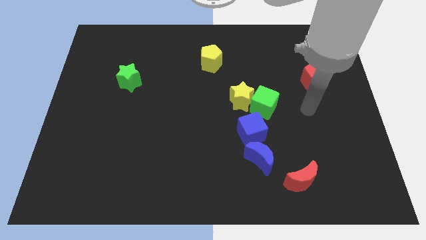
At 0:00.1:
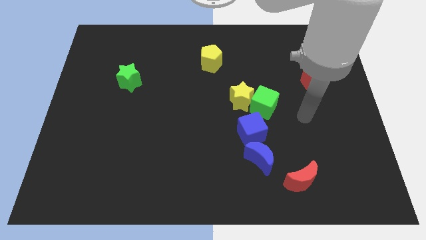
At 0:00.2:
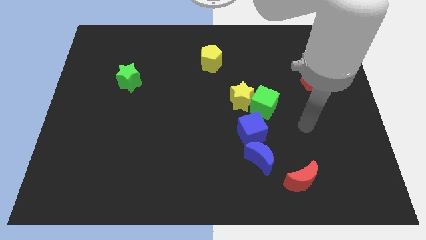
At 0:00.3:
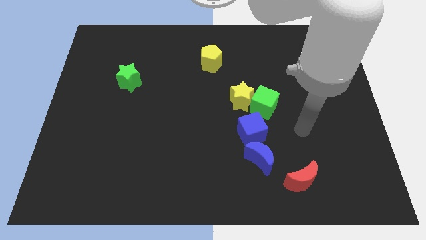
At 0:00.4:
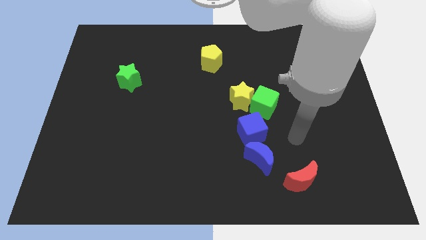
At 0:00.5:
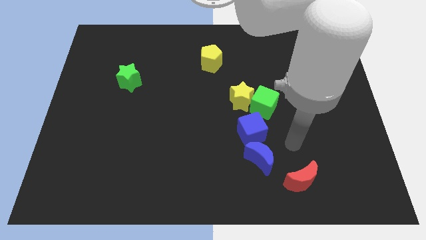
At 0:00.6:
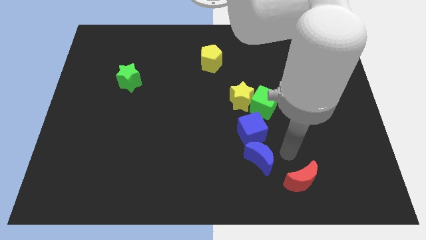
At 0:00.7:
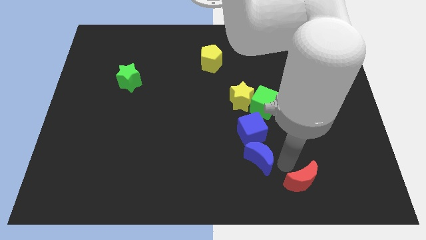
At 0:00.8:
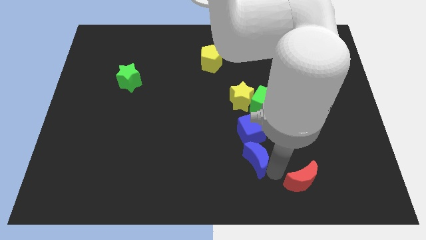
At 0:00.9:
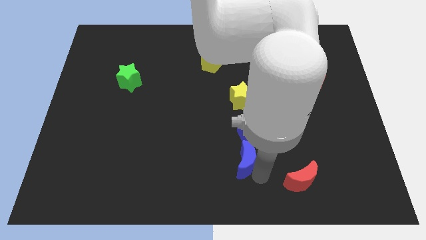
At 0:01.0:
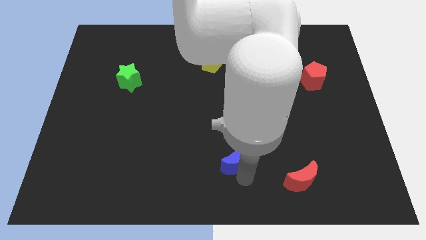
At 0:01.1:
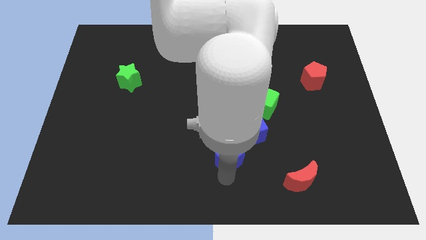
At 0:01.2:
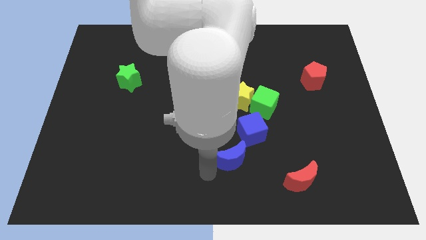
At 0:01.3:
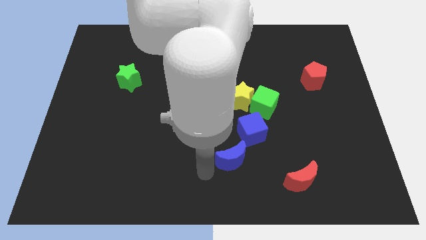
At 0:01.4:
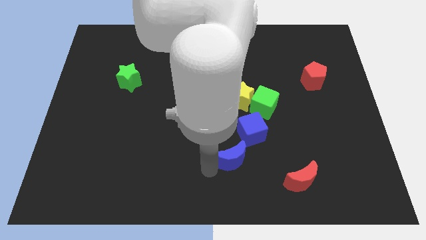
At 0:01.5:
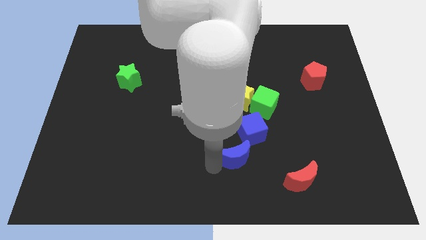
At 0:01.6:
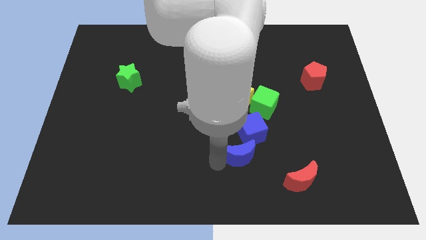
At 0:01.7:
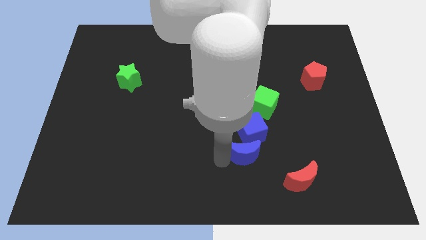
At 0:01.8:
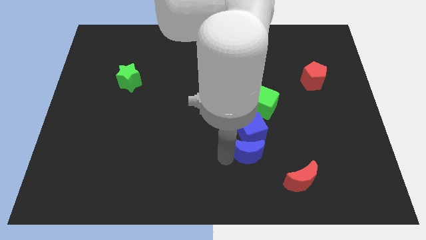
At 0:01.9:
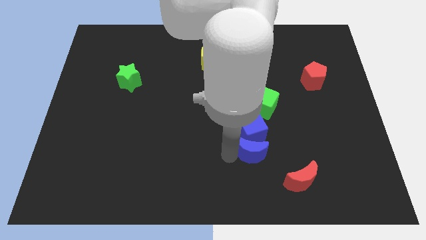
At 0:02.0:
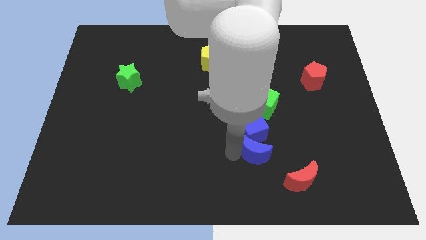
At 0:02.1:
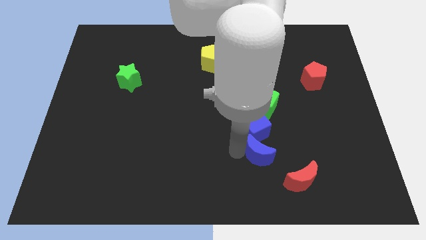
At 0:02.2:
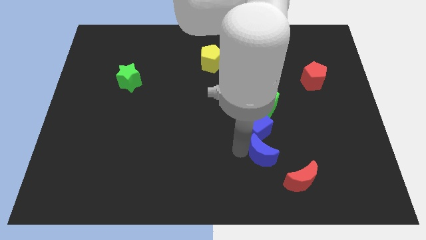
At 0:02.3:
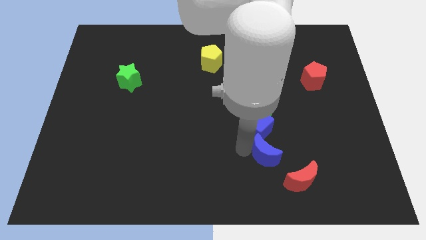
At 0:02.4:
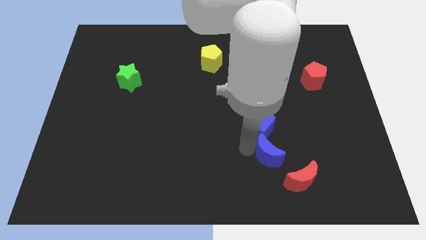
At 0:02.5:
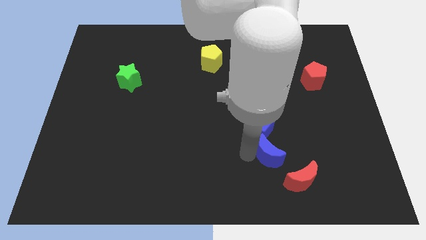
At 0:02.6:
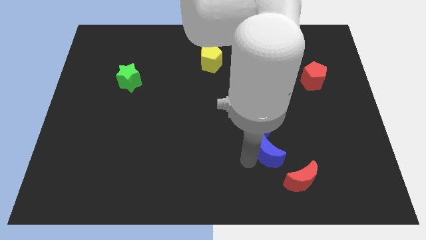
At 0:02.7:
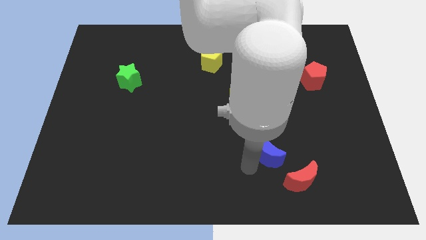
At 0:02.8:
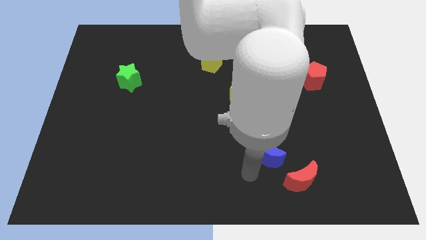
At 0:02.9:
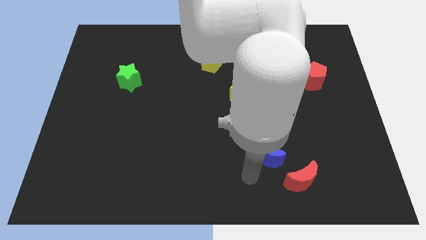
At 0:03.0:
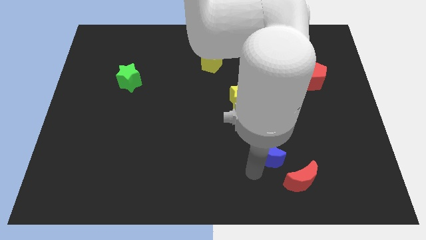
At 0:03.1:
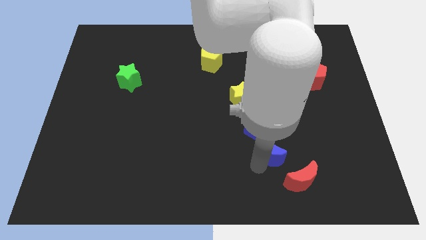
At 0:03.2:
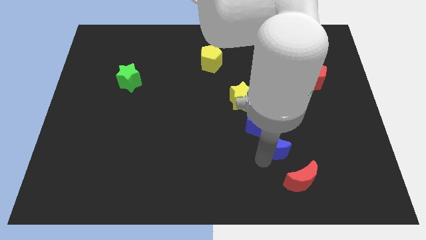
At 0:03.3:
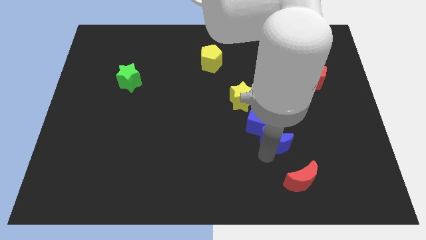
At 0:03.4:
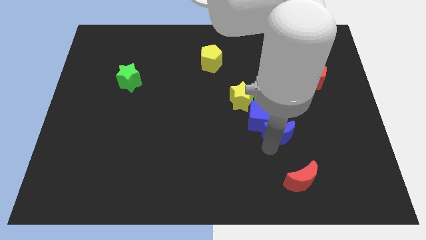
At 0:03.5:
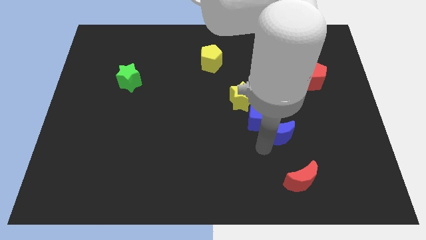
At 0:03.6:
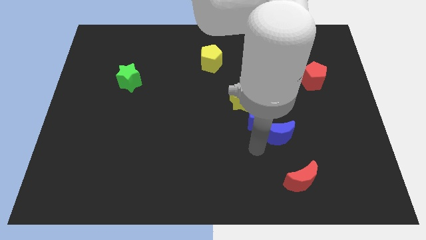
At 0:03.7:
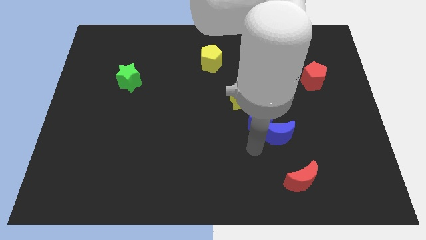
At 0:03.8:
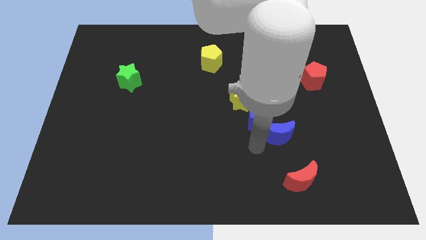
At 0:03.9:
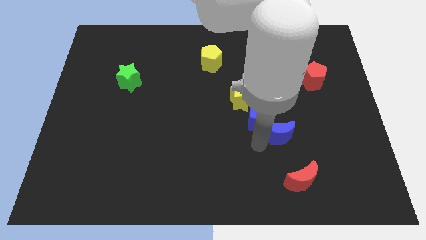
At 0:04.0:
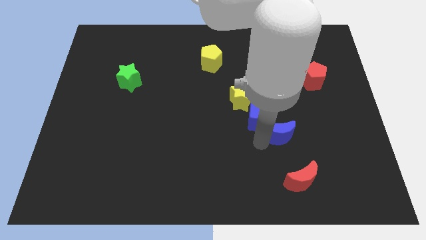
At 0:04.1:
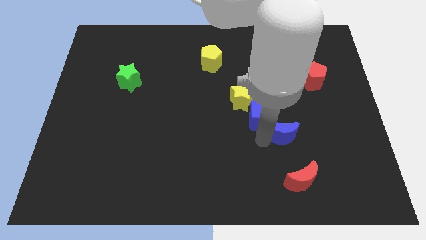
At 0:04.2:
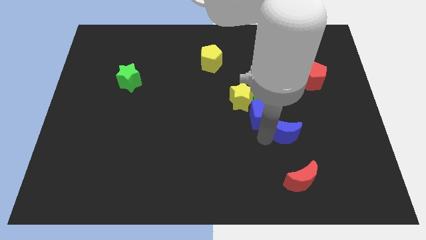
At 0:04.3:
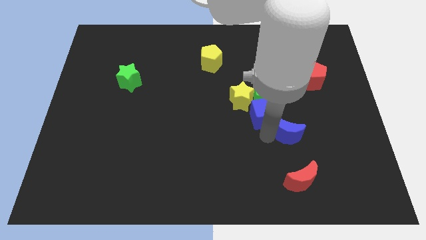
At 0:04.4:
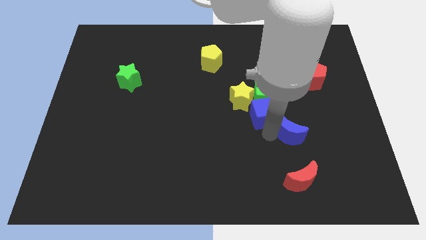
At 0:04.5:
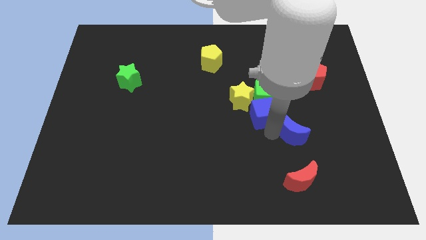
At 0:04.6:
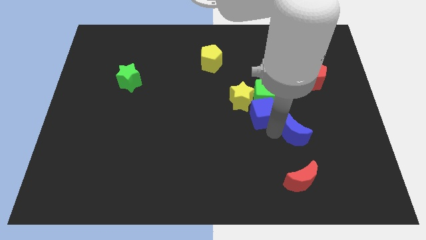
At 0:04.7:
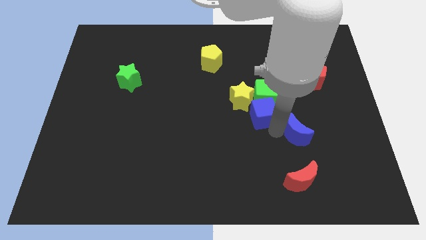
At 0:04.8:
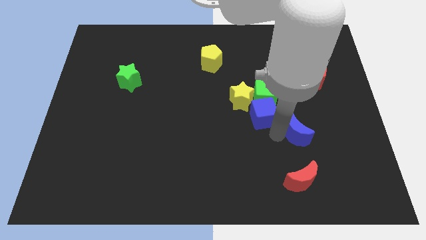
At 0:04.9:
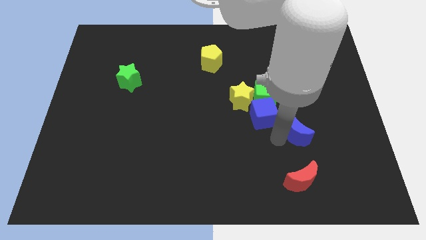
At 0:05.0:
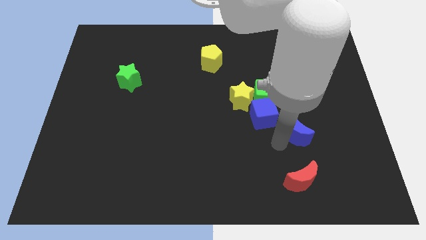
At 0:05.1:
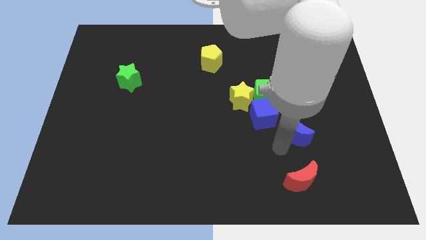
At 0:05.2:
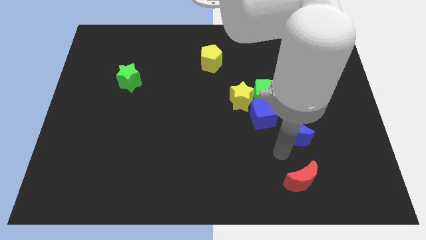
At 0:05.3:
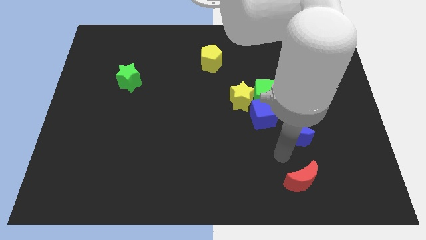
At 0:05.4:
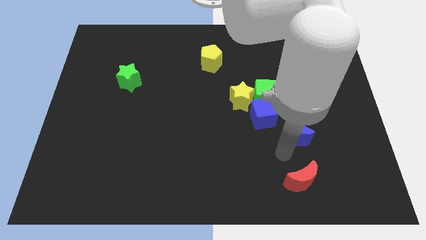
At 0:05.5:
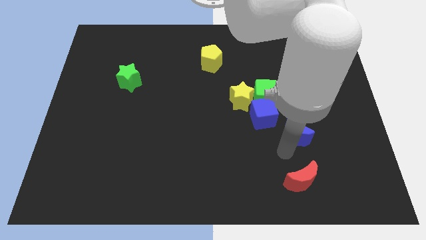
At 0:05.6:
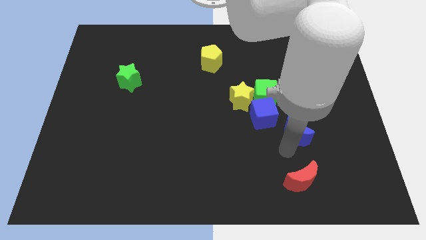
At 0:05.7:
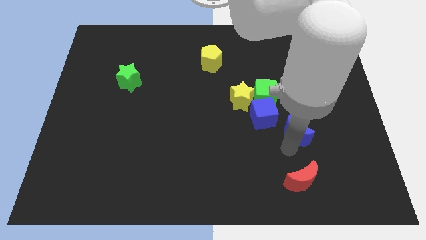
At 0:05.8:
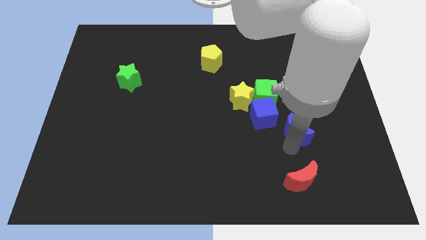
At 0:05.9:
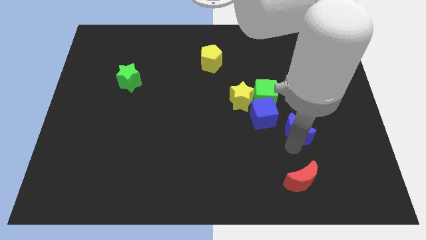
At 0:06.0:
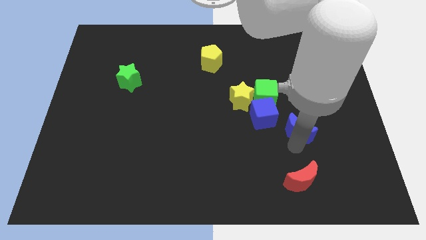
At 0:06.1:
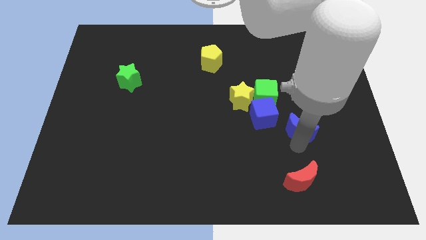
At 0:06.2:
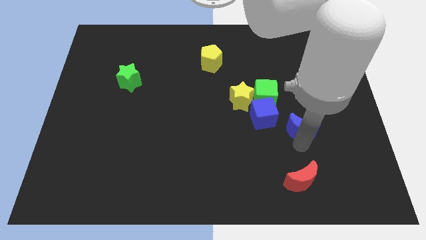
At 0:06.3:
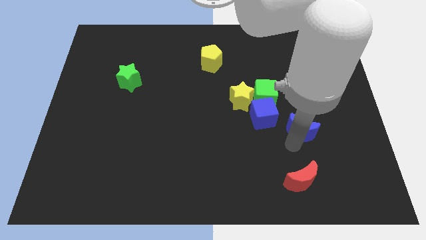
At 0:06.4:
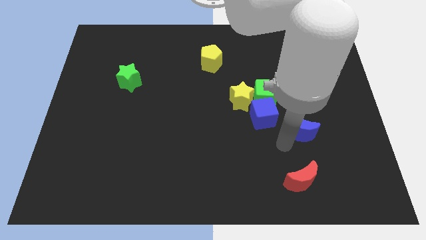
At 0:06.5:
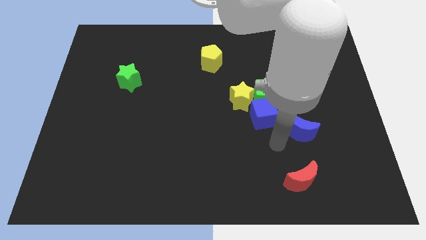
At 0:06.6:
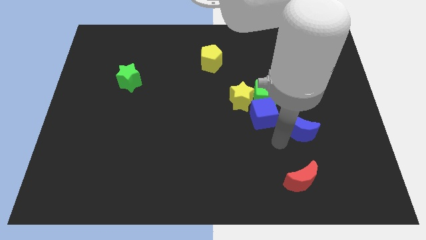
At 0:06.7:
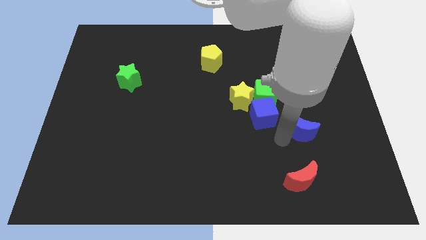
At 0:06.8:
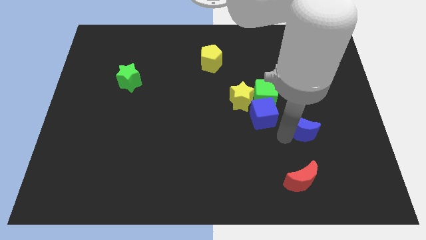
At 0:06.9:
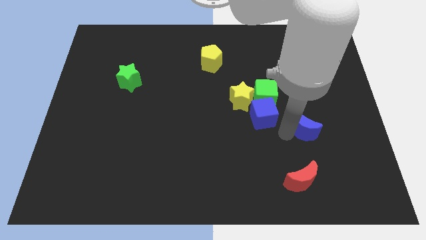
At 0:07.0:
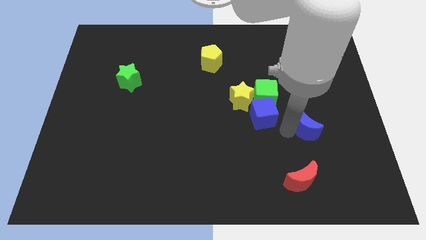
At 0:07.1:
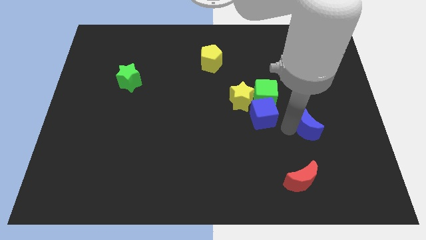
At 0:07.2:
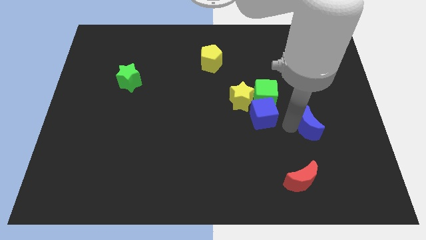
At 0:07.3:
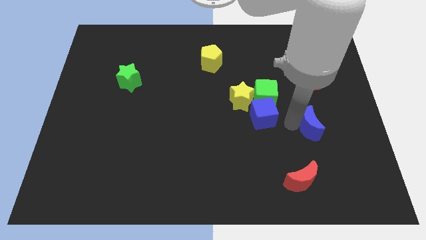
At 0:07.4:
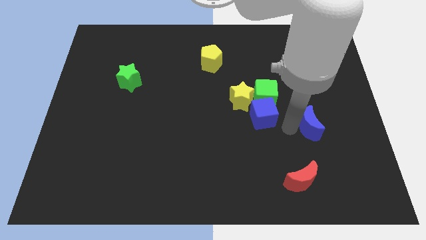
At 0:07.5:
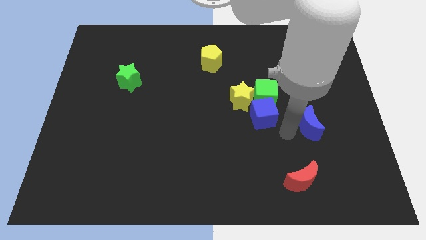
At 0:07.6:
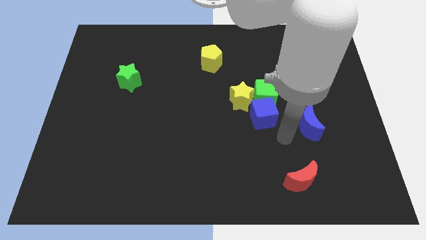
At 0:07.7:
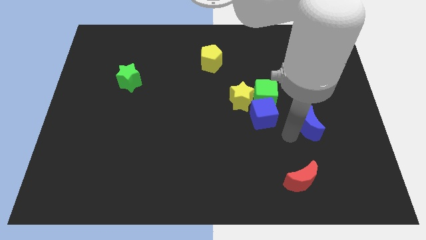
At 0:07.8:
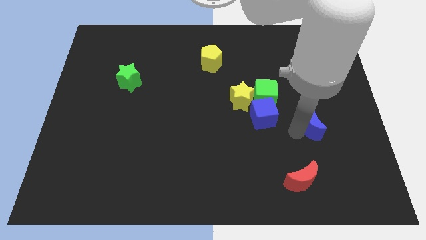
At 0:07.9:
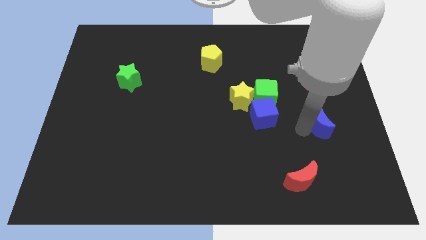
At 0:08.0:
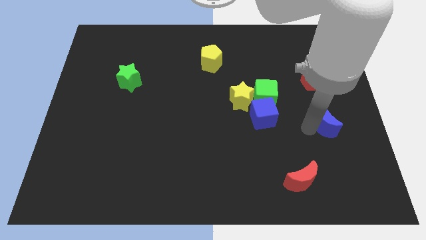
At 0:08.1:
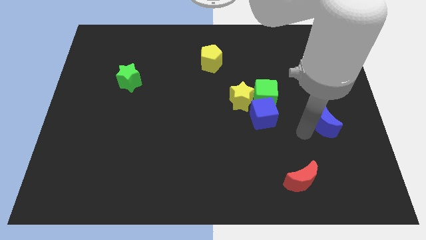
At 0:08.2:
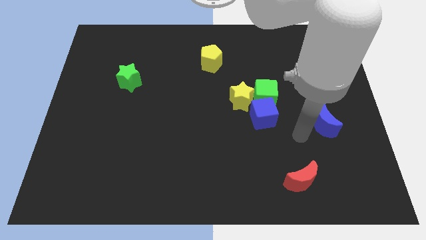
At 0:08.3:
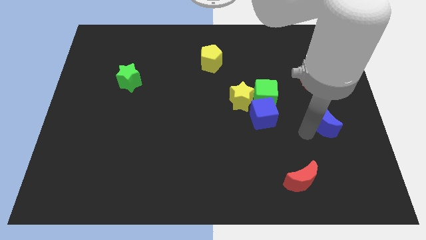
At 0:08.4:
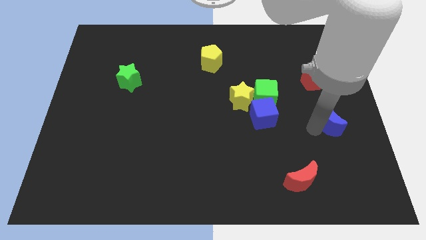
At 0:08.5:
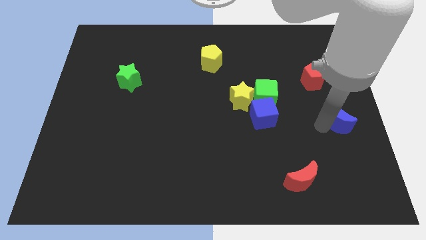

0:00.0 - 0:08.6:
put the blue moon to the right side of the board
